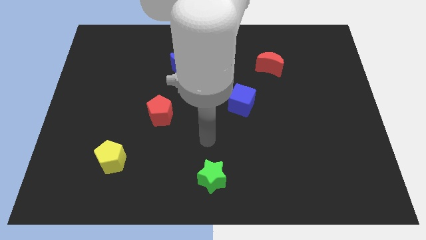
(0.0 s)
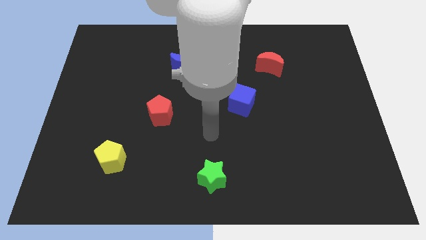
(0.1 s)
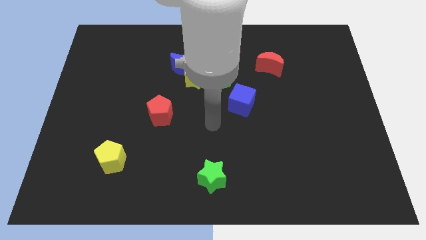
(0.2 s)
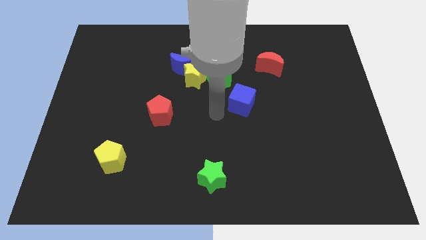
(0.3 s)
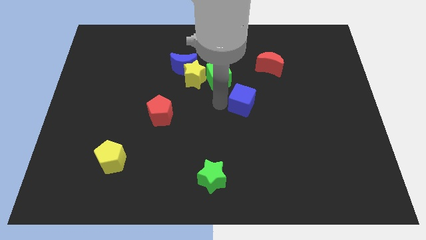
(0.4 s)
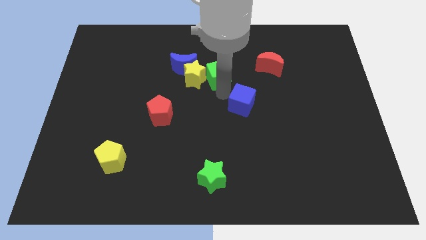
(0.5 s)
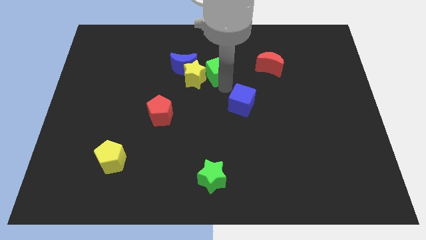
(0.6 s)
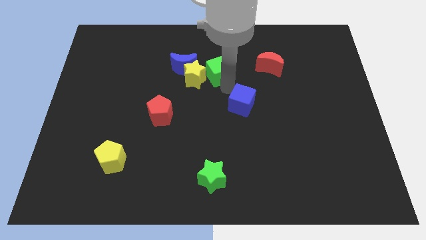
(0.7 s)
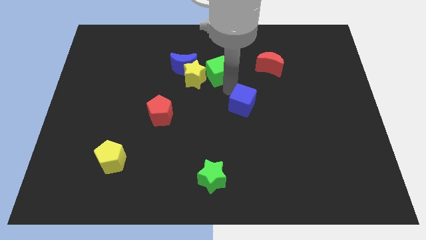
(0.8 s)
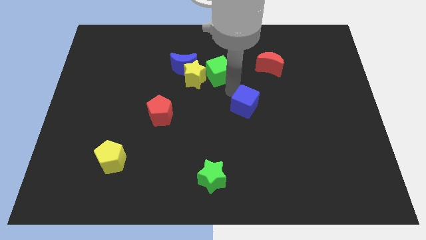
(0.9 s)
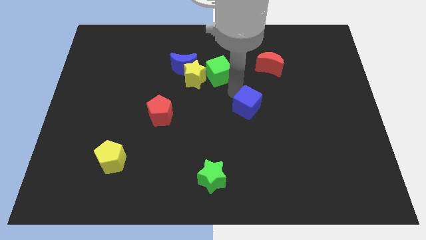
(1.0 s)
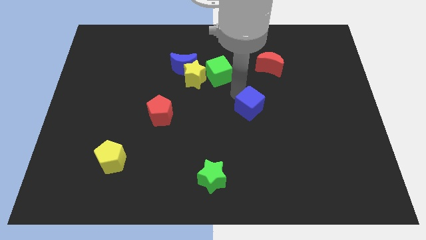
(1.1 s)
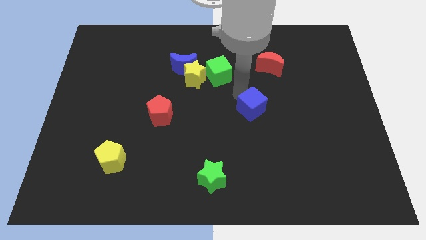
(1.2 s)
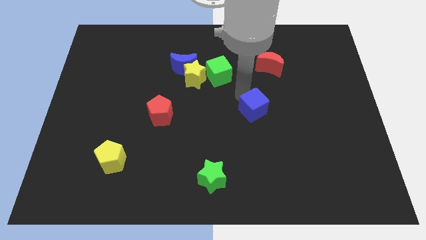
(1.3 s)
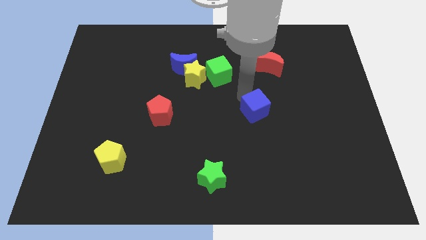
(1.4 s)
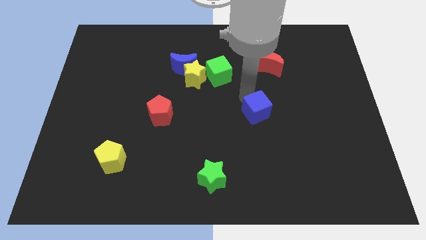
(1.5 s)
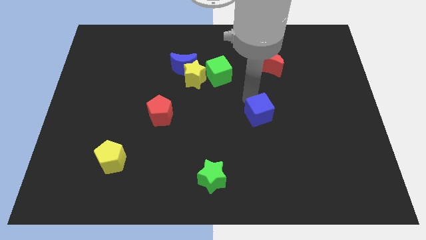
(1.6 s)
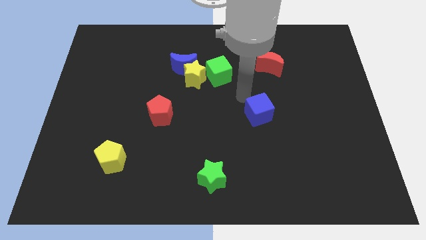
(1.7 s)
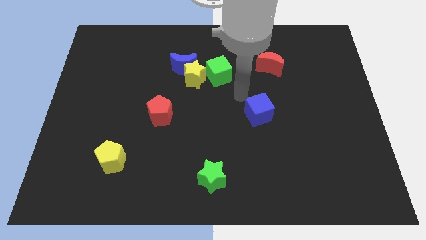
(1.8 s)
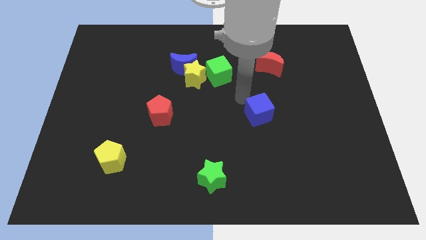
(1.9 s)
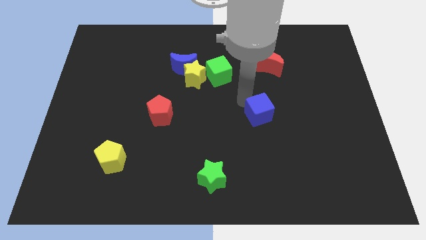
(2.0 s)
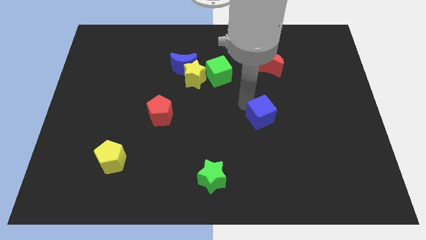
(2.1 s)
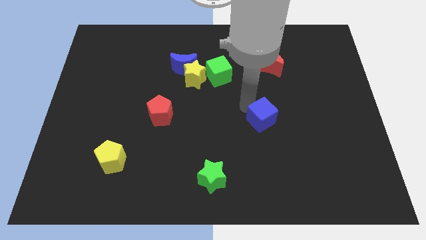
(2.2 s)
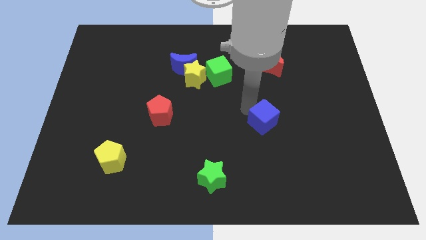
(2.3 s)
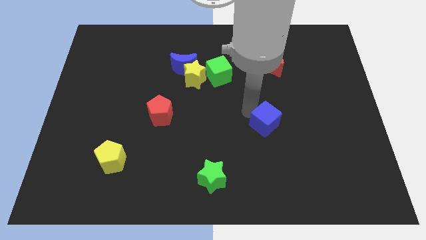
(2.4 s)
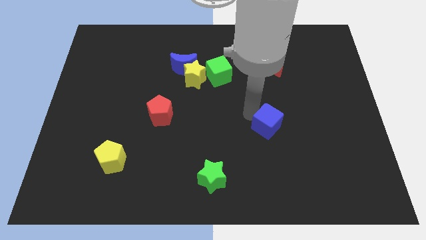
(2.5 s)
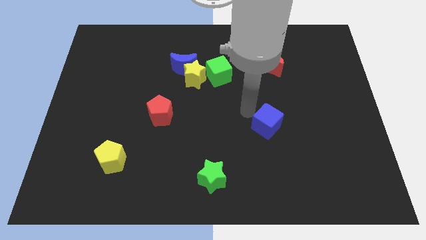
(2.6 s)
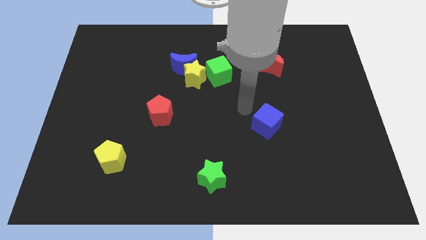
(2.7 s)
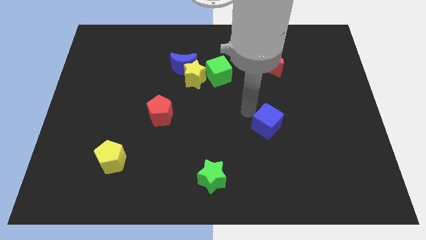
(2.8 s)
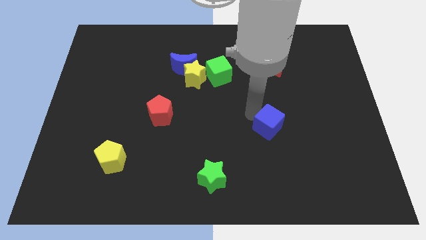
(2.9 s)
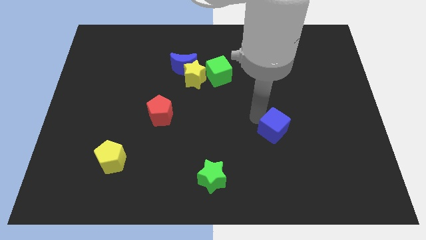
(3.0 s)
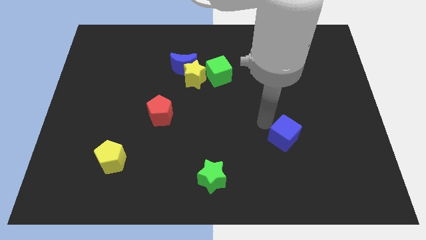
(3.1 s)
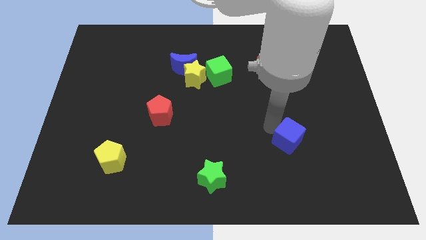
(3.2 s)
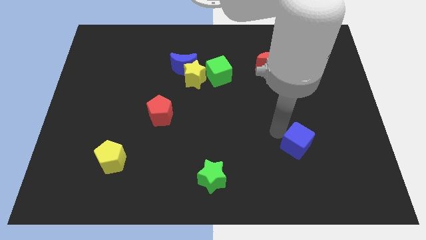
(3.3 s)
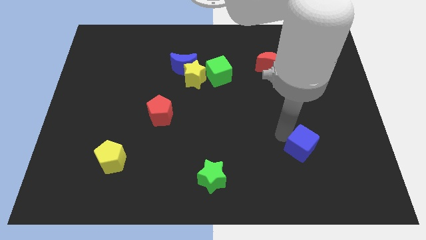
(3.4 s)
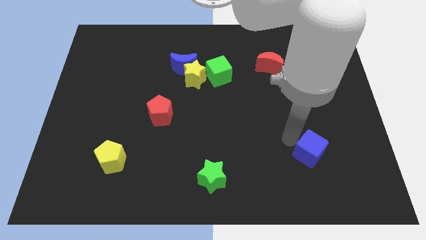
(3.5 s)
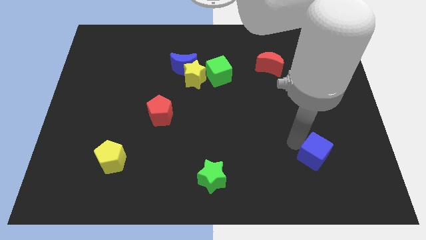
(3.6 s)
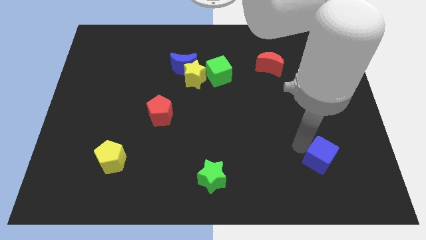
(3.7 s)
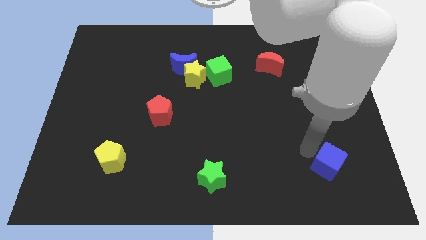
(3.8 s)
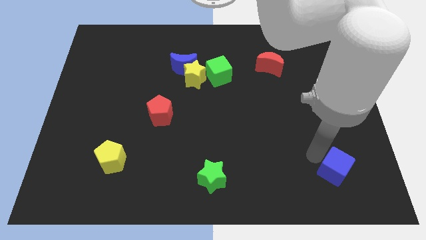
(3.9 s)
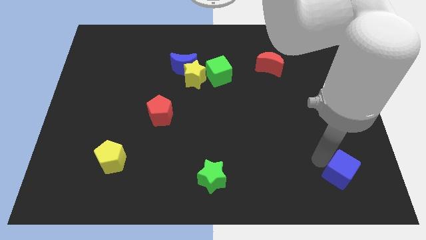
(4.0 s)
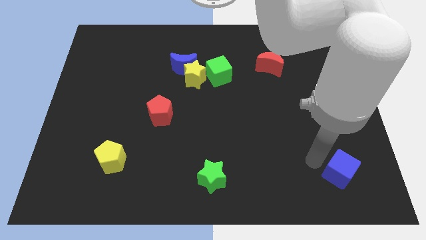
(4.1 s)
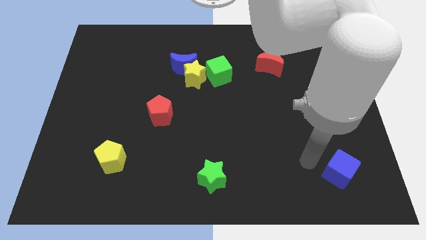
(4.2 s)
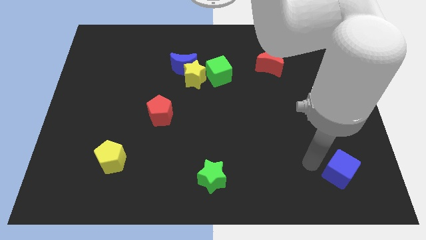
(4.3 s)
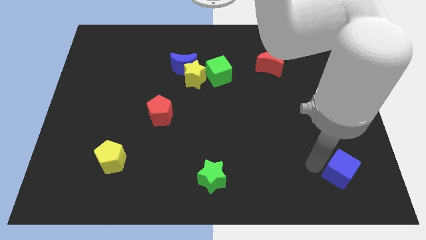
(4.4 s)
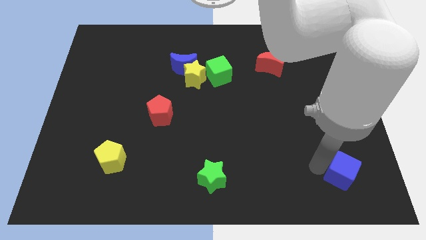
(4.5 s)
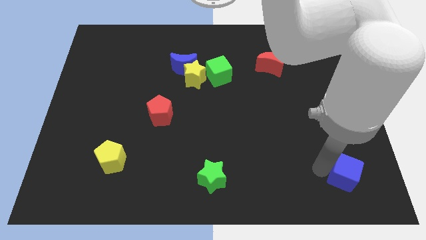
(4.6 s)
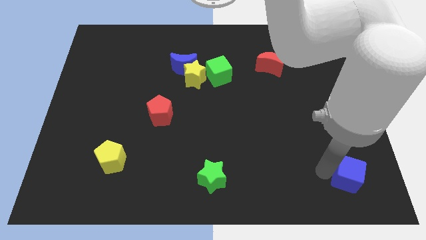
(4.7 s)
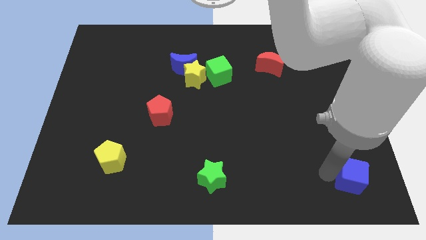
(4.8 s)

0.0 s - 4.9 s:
move the blue cube to the bottom right
